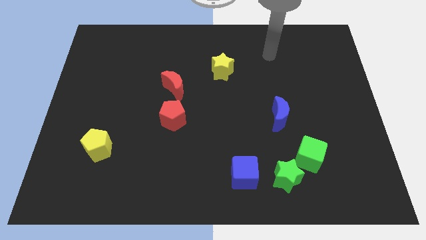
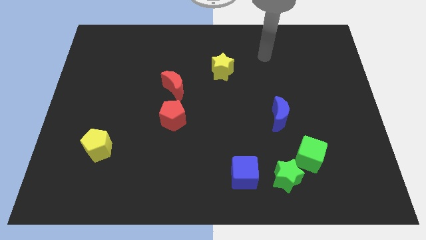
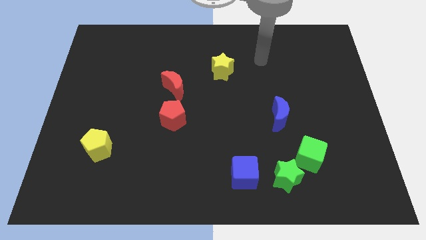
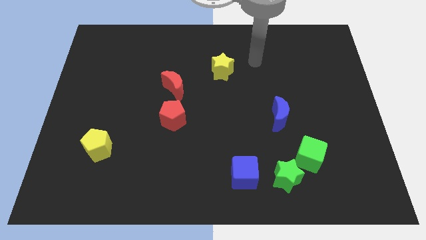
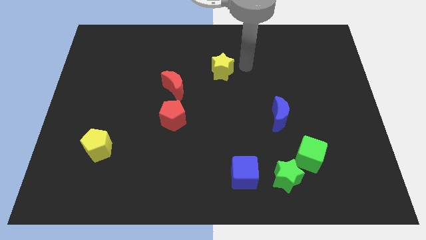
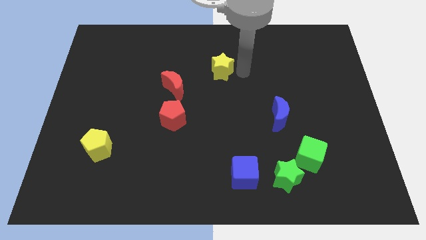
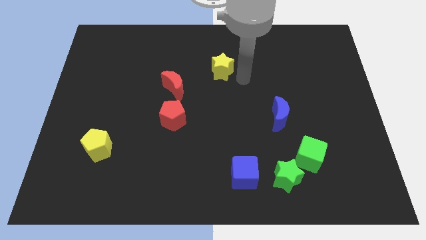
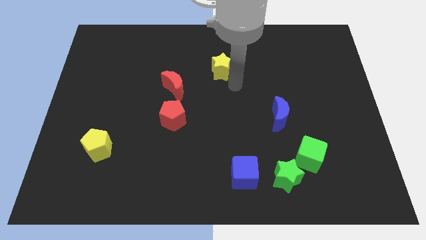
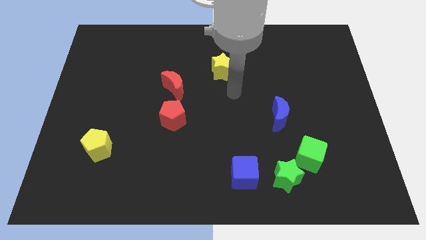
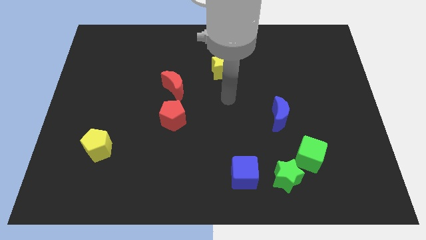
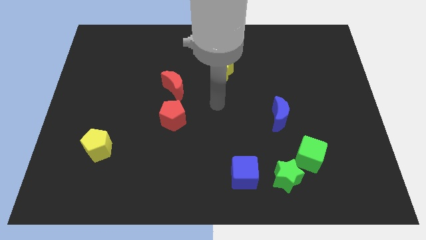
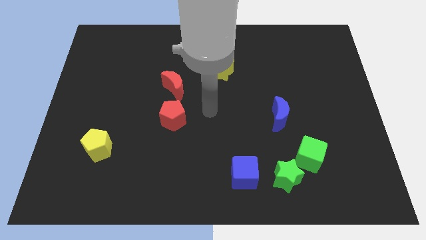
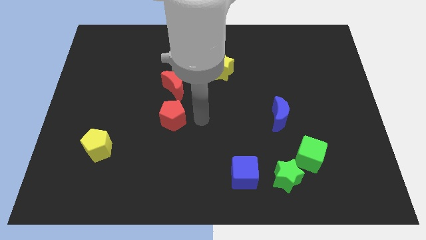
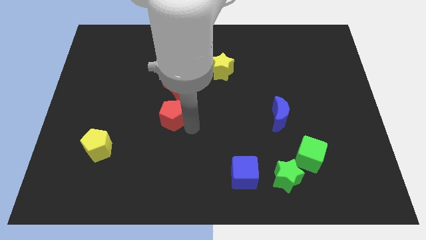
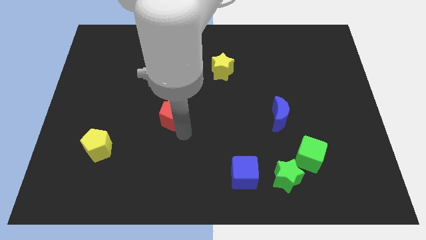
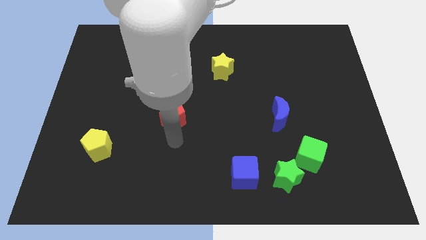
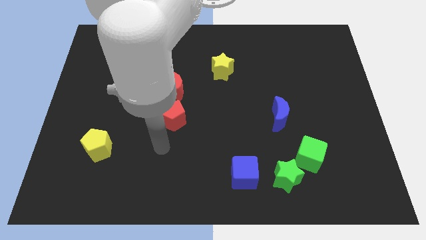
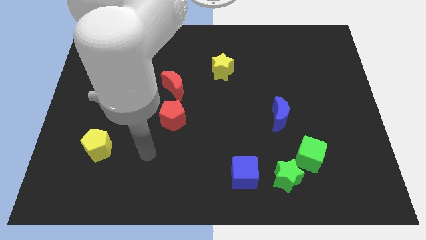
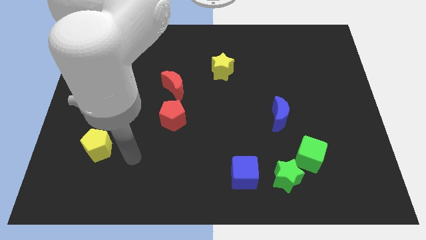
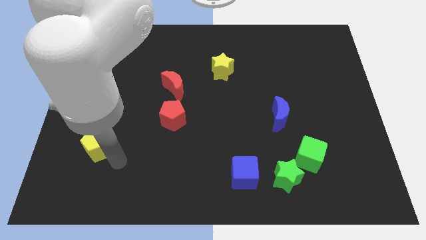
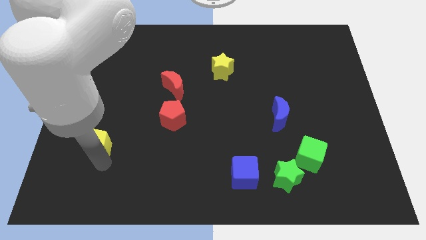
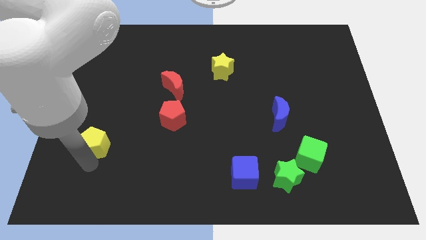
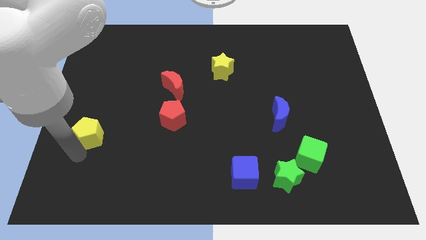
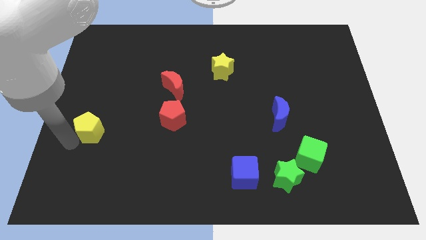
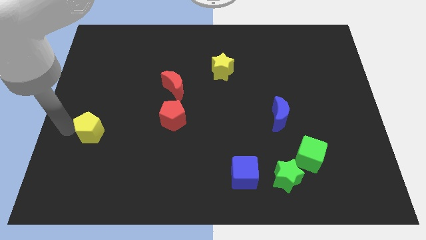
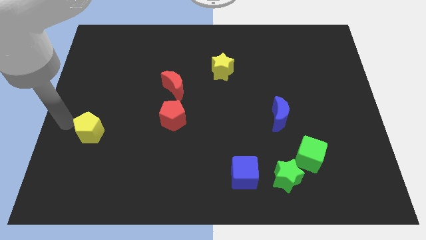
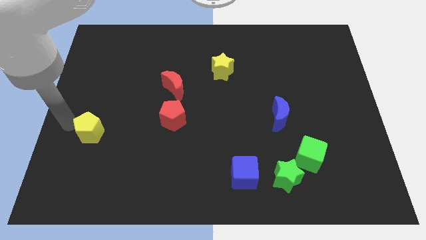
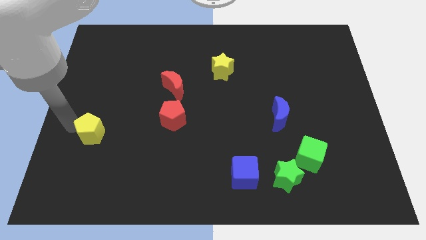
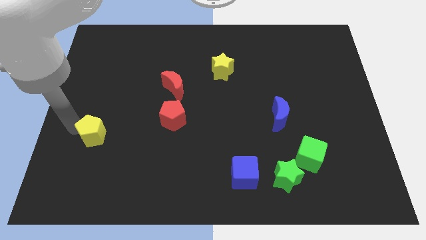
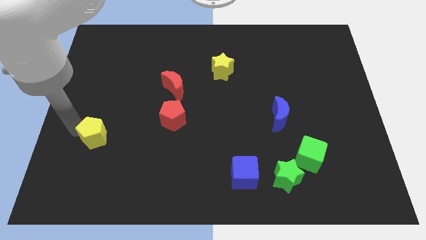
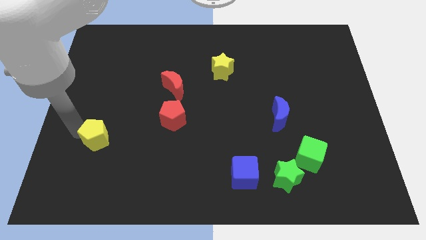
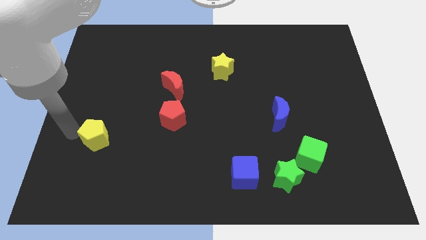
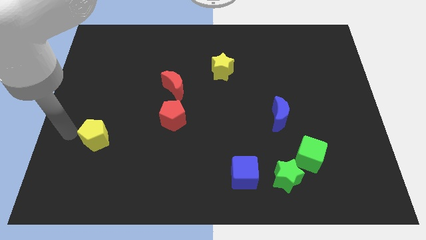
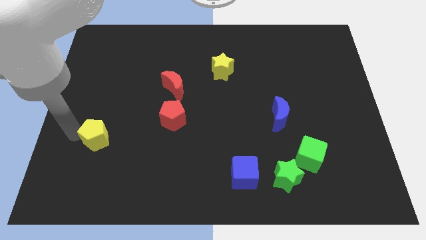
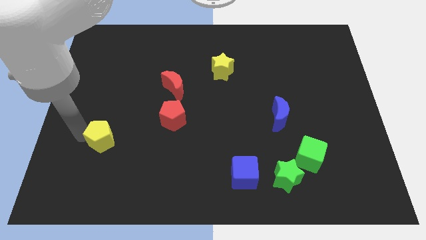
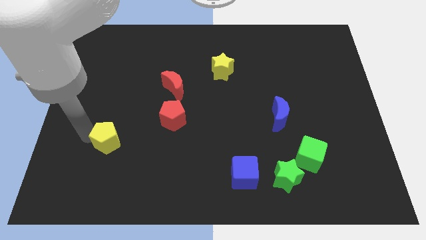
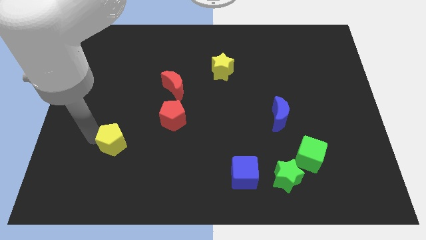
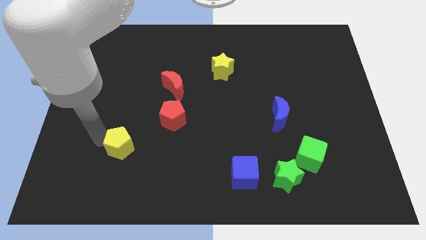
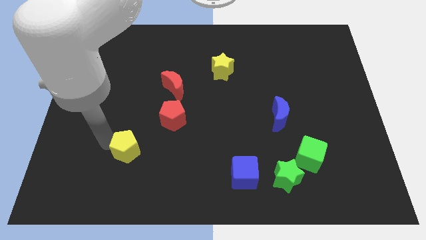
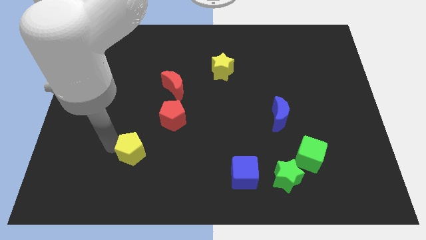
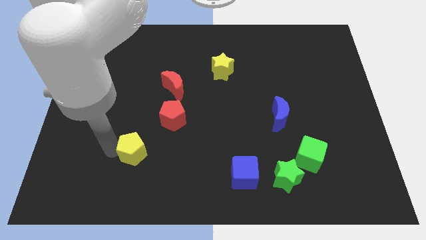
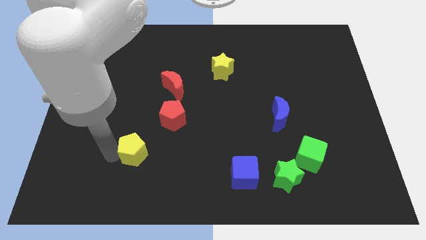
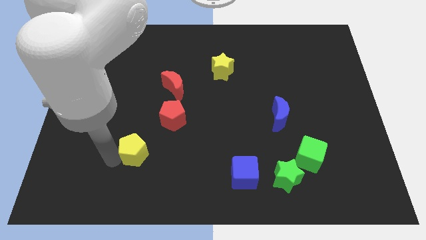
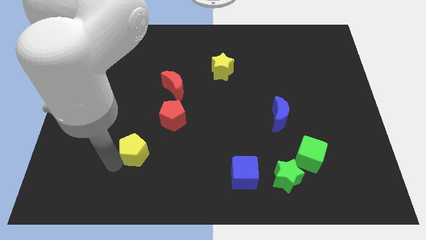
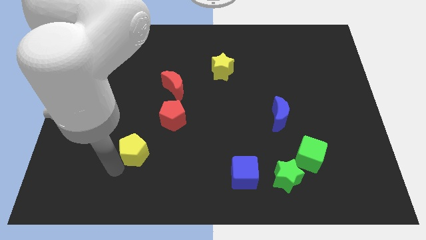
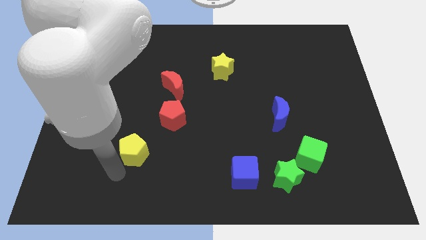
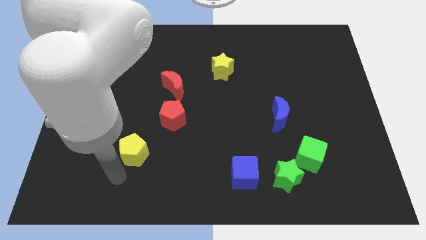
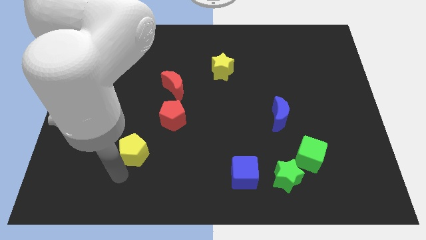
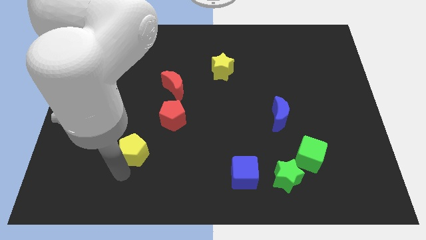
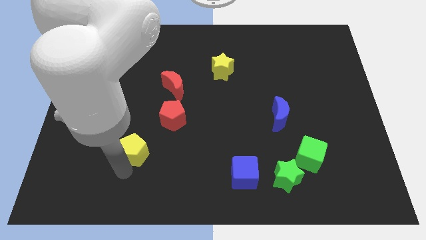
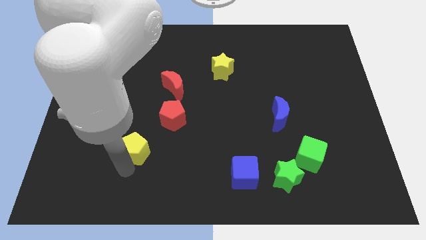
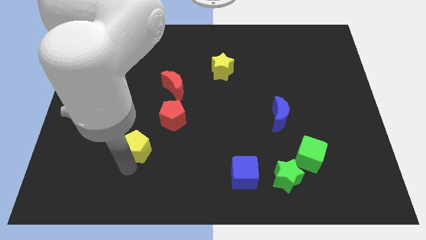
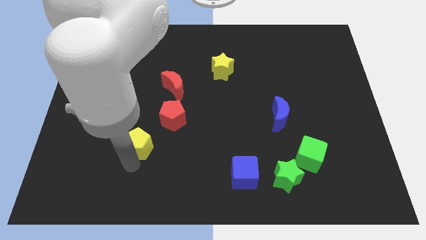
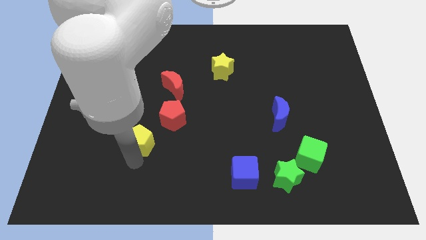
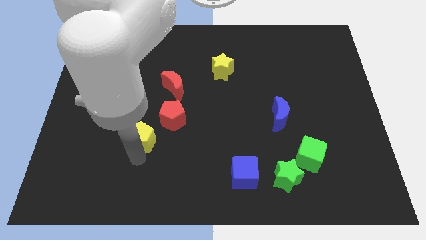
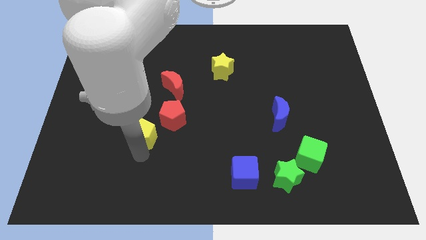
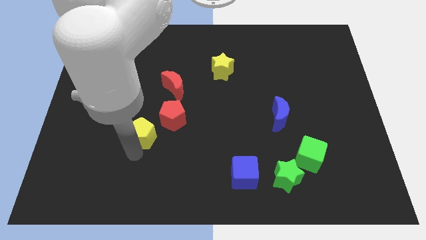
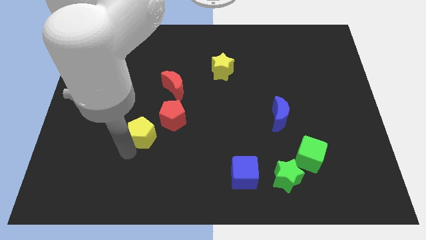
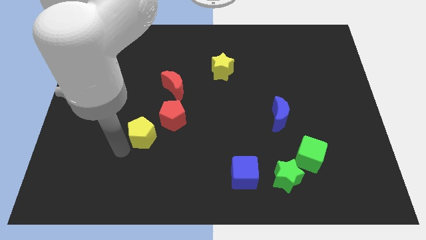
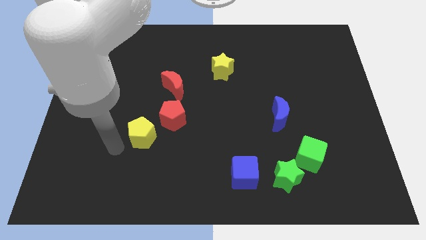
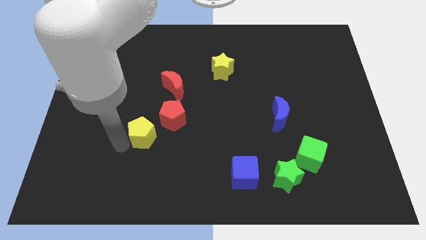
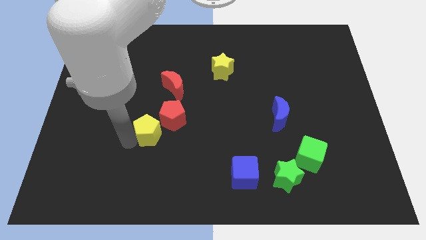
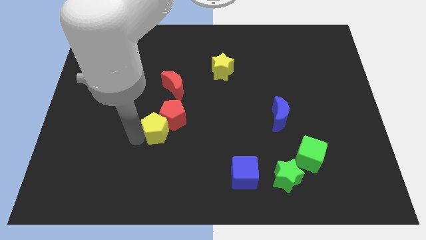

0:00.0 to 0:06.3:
put the yellow pentagon to the bottom side of the red moon
